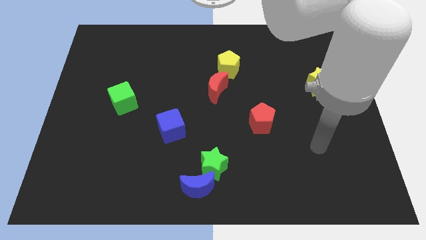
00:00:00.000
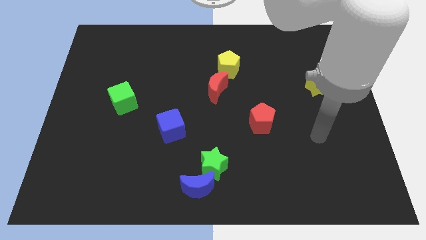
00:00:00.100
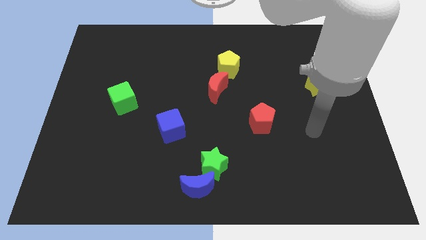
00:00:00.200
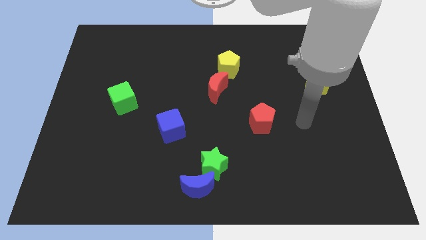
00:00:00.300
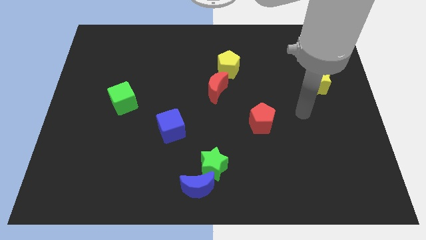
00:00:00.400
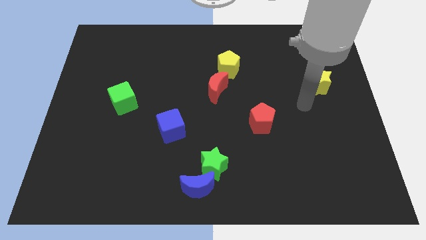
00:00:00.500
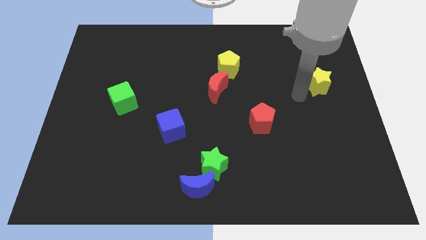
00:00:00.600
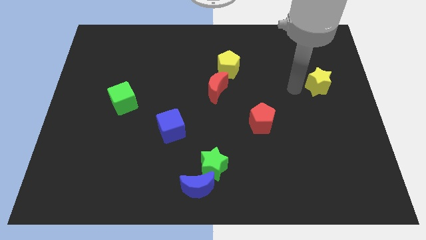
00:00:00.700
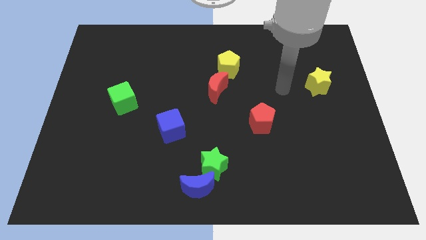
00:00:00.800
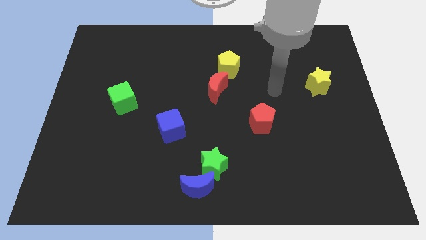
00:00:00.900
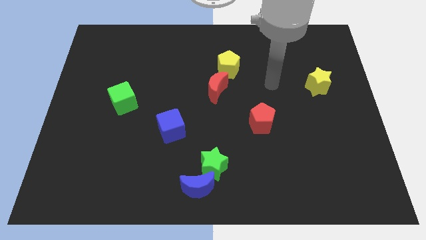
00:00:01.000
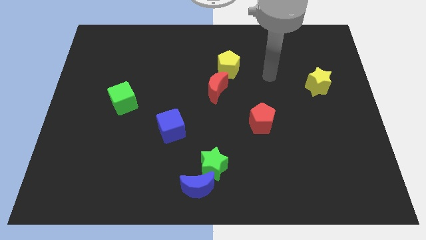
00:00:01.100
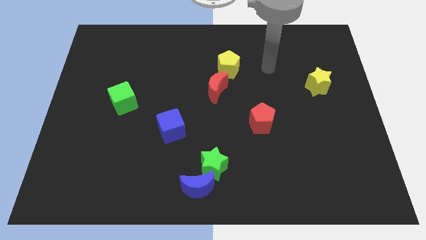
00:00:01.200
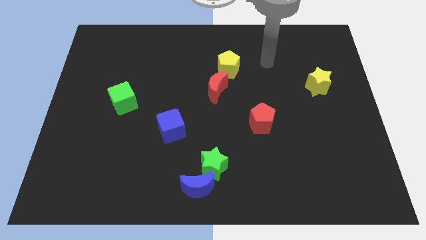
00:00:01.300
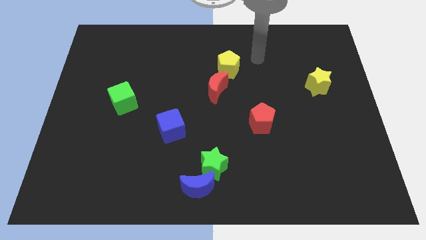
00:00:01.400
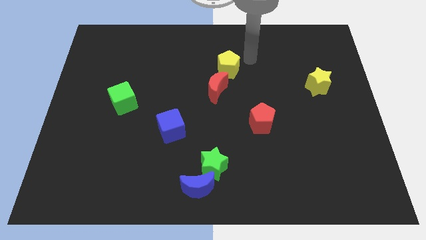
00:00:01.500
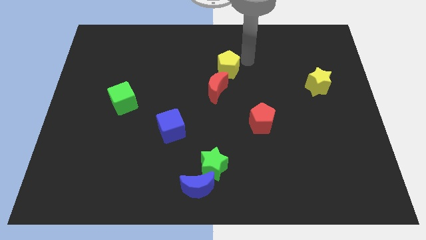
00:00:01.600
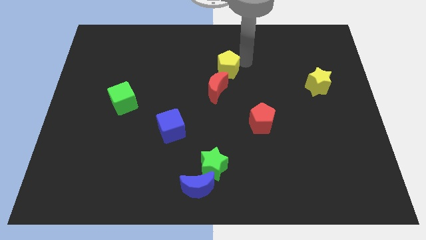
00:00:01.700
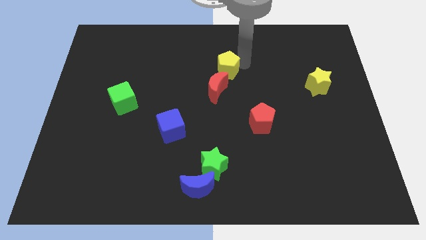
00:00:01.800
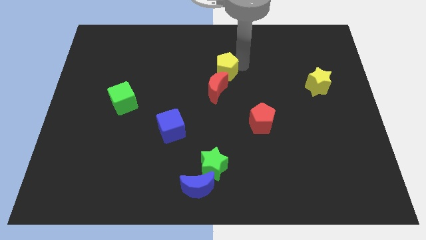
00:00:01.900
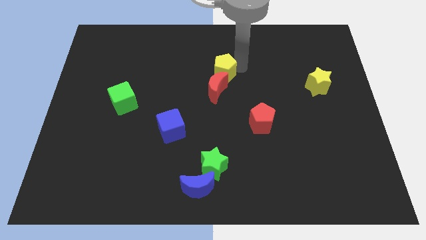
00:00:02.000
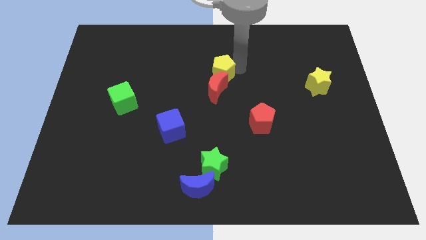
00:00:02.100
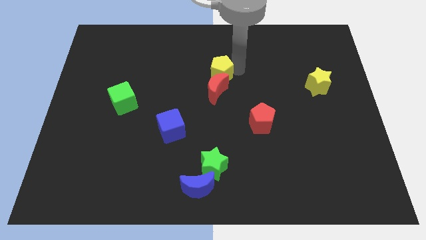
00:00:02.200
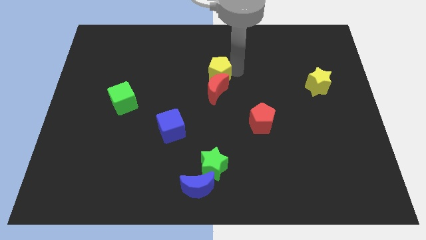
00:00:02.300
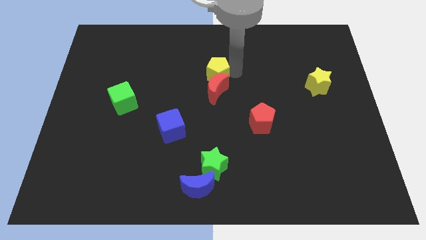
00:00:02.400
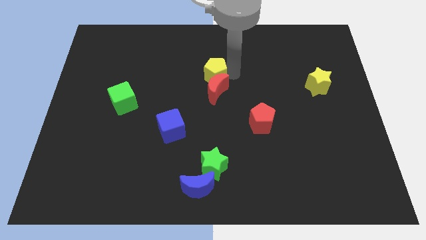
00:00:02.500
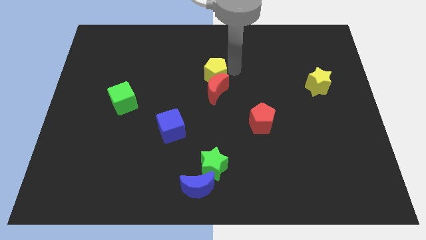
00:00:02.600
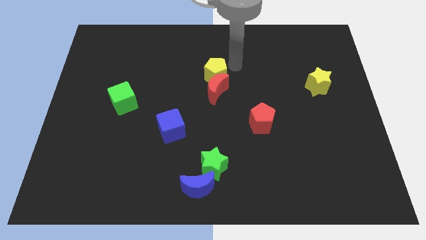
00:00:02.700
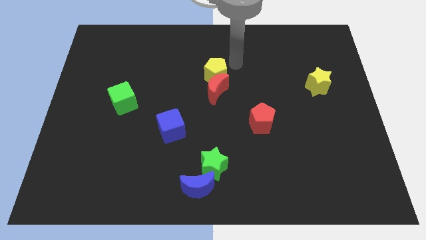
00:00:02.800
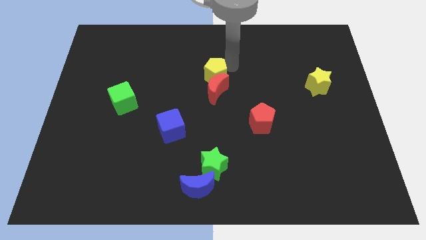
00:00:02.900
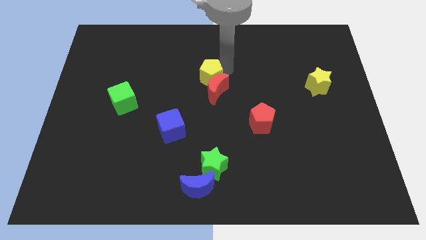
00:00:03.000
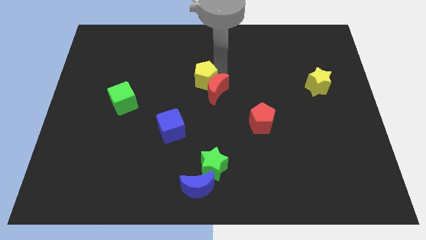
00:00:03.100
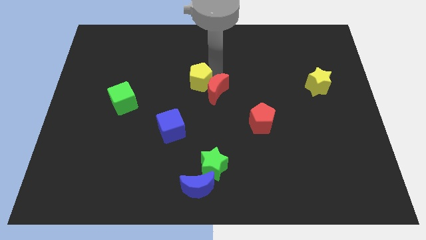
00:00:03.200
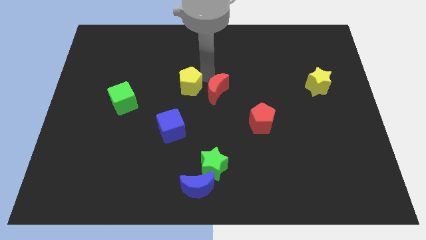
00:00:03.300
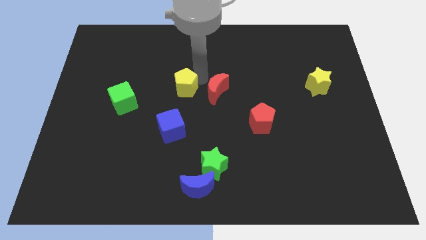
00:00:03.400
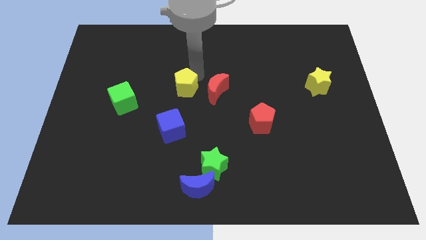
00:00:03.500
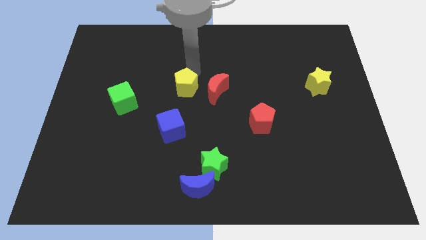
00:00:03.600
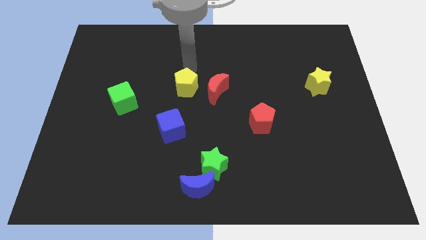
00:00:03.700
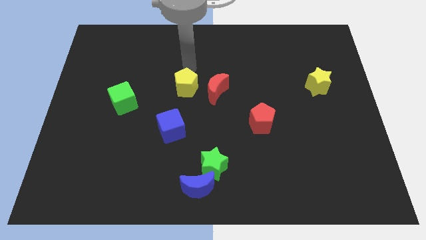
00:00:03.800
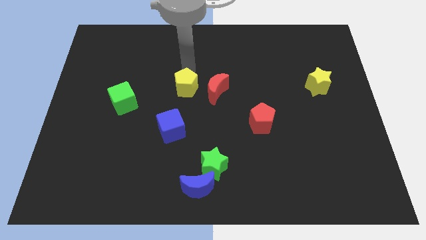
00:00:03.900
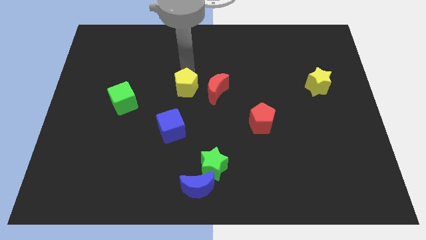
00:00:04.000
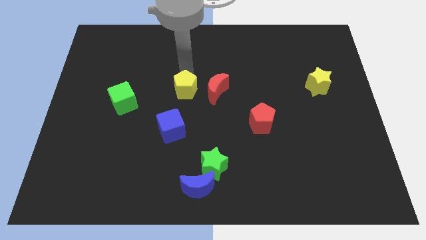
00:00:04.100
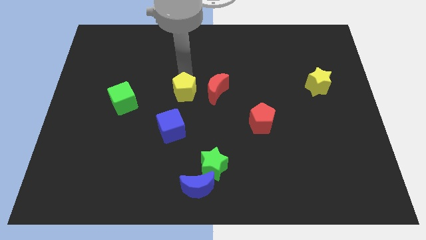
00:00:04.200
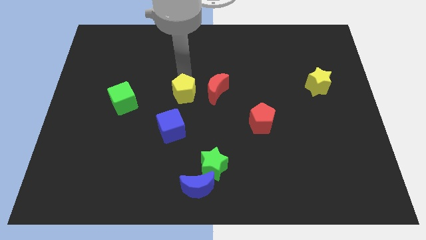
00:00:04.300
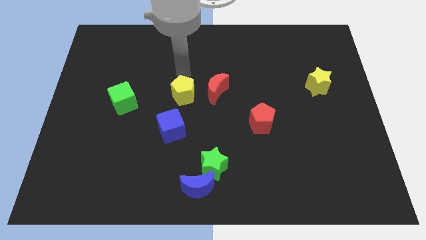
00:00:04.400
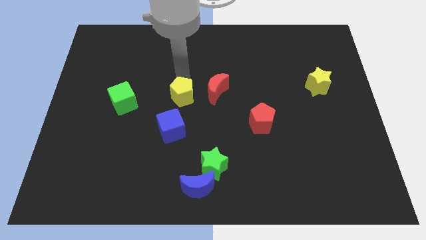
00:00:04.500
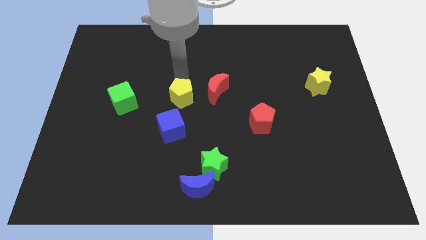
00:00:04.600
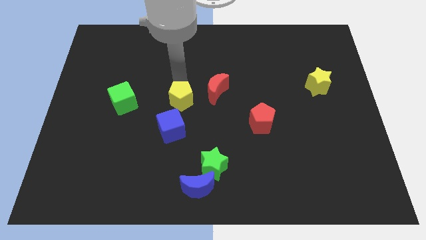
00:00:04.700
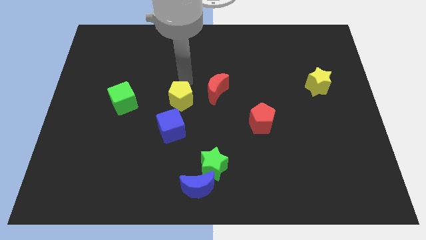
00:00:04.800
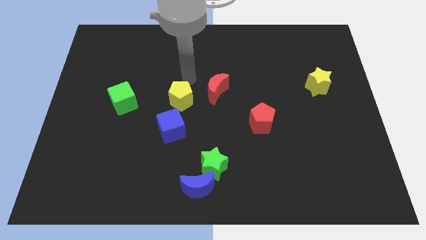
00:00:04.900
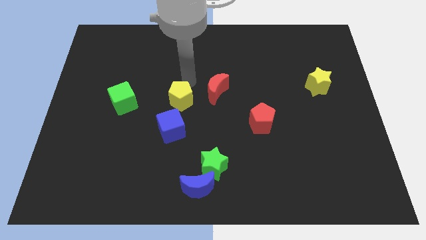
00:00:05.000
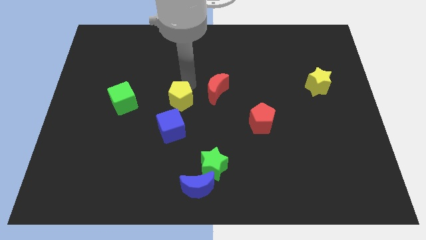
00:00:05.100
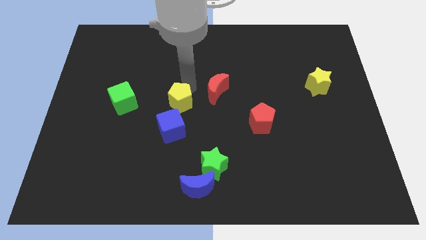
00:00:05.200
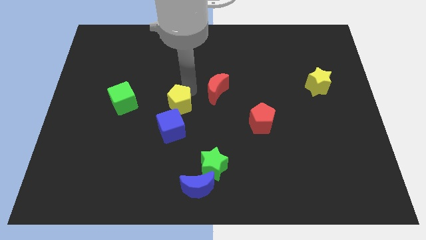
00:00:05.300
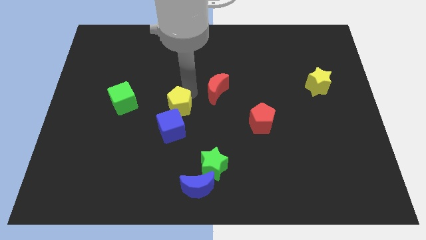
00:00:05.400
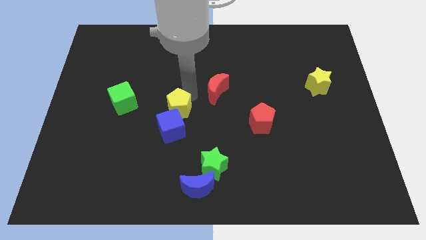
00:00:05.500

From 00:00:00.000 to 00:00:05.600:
push the yellow pentagon close to the blue cube

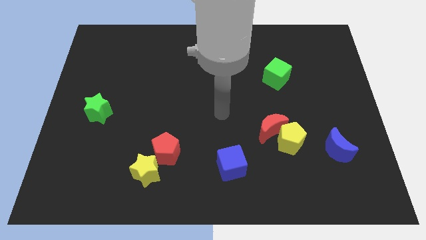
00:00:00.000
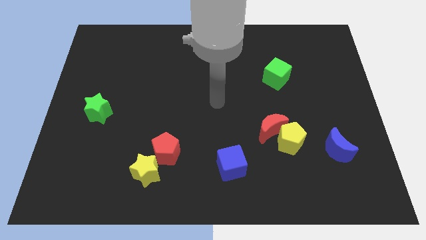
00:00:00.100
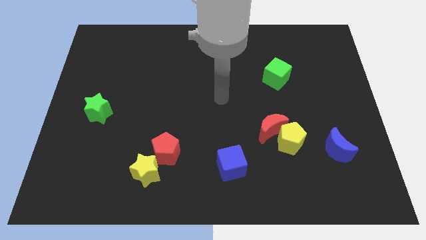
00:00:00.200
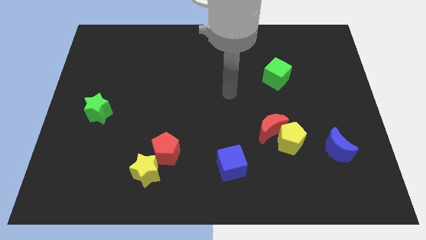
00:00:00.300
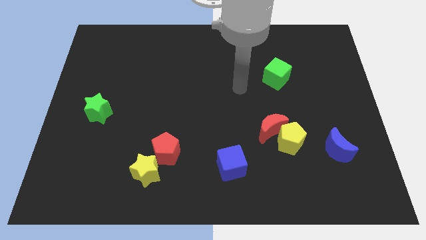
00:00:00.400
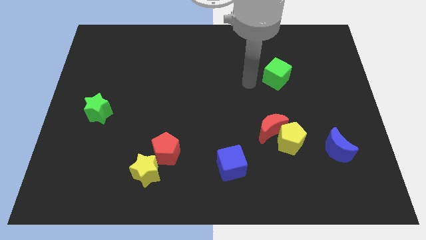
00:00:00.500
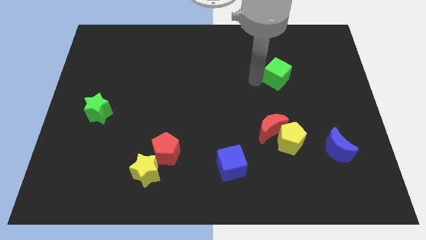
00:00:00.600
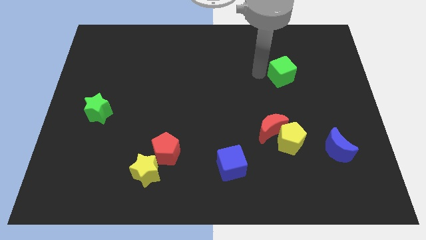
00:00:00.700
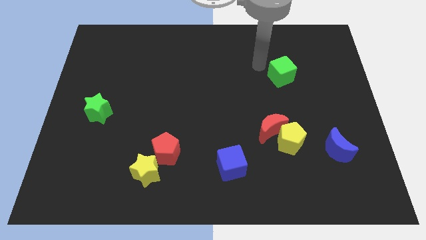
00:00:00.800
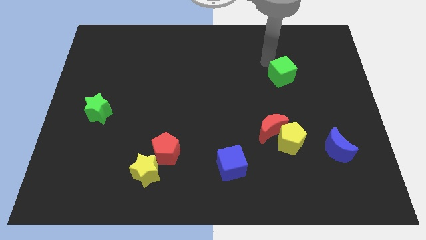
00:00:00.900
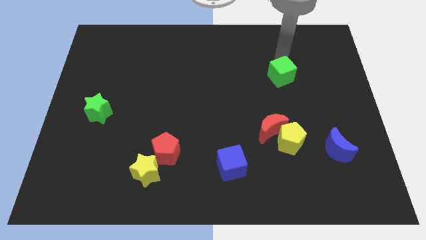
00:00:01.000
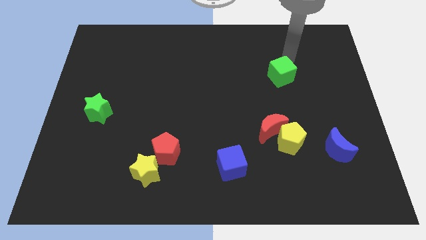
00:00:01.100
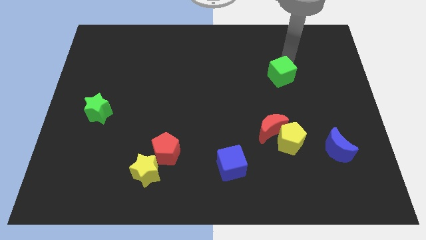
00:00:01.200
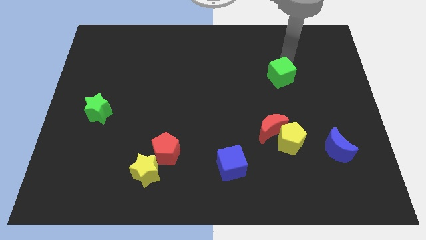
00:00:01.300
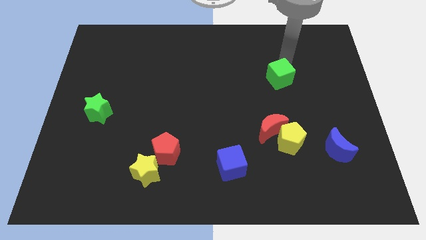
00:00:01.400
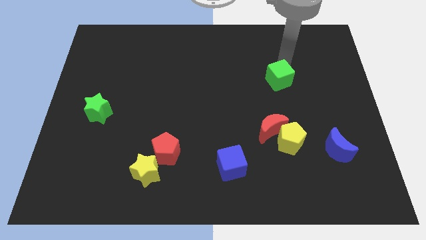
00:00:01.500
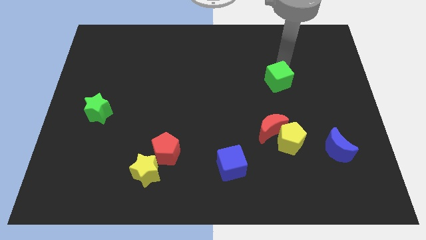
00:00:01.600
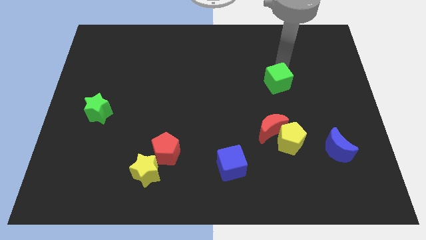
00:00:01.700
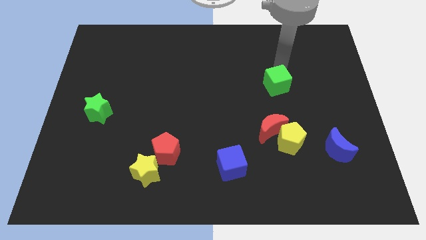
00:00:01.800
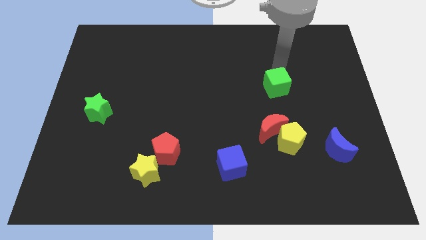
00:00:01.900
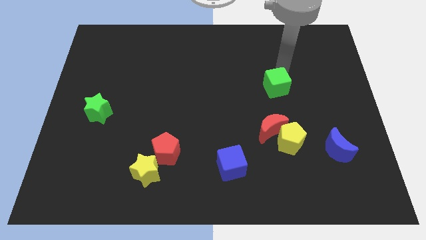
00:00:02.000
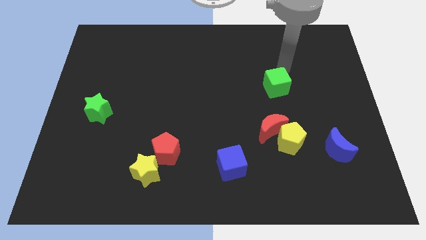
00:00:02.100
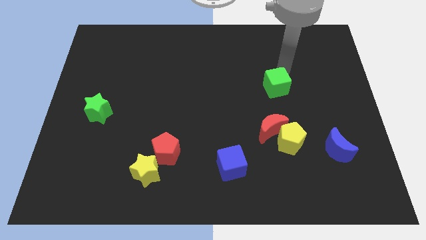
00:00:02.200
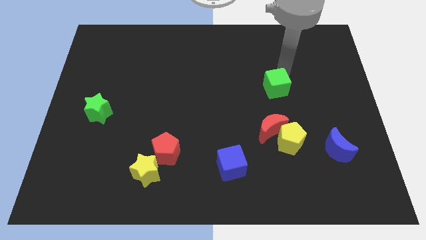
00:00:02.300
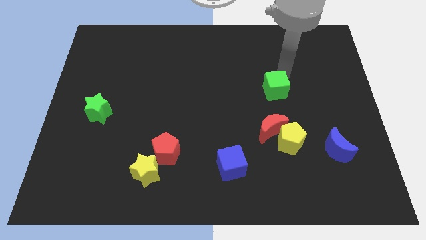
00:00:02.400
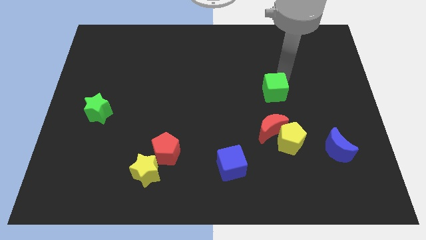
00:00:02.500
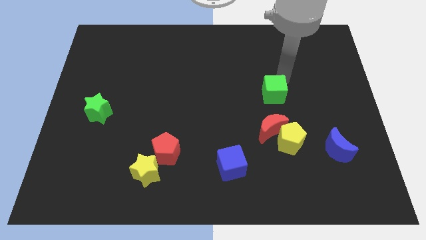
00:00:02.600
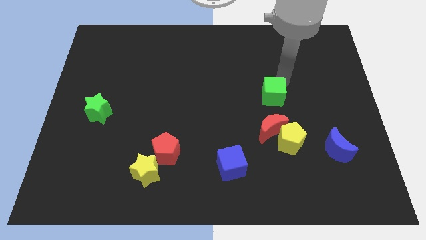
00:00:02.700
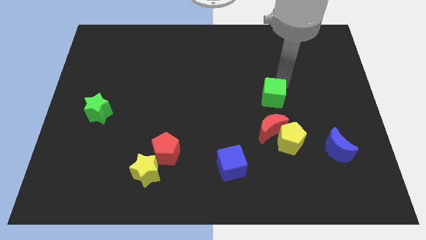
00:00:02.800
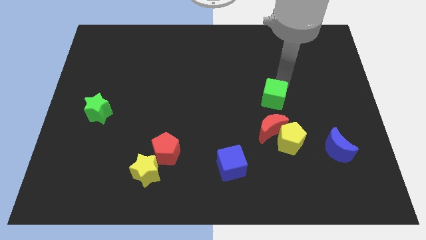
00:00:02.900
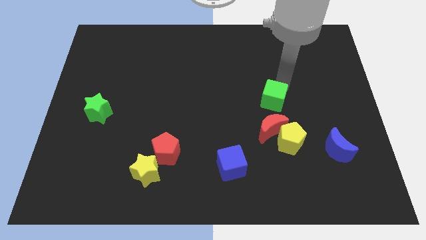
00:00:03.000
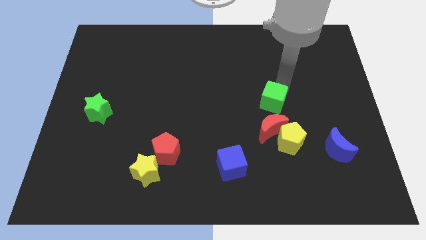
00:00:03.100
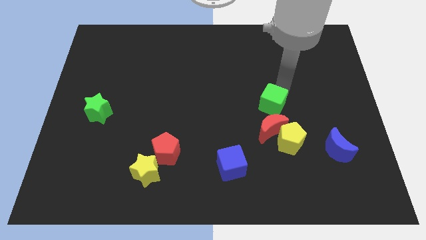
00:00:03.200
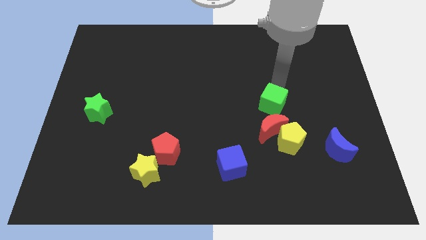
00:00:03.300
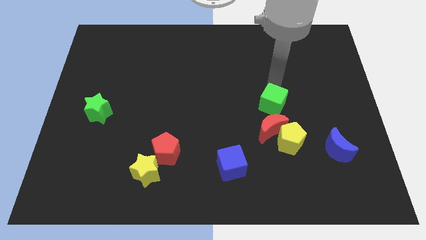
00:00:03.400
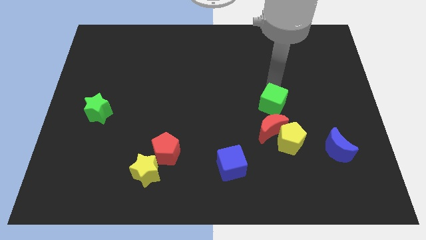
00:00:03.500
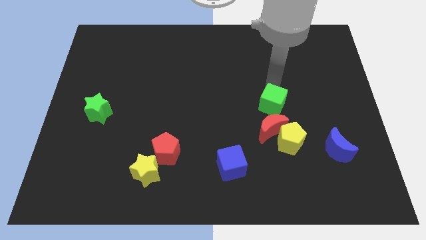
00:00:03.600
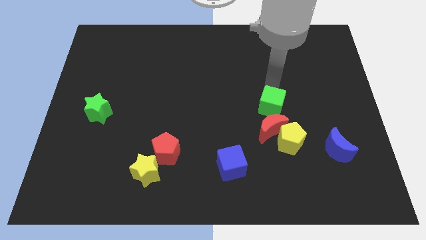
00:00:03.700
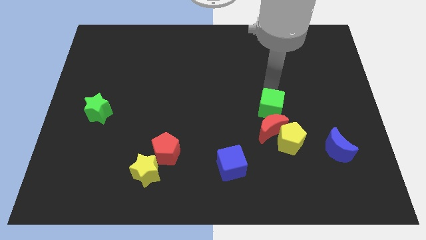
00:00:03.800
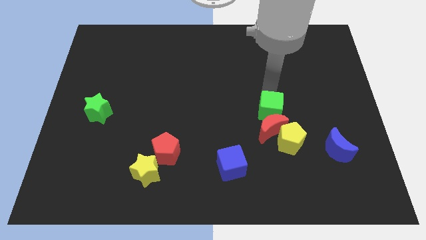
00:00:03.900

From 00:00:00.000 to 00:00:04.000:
move the green cube towards the red moon
